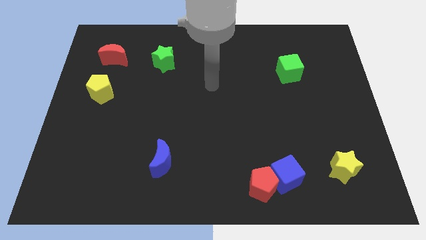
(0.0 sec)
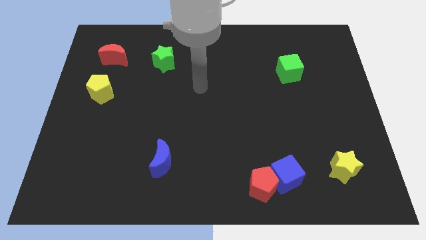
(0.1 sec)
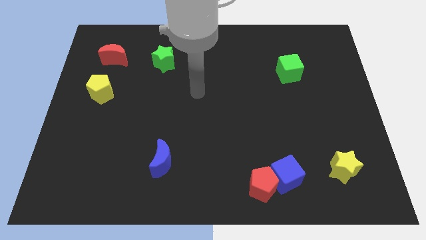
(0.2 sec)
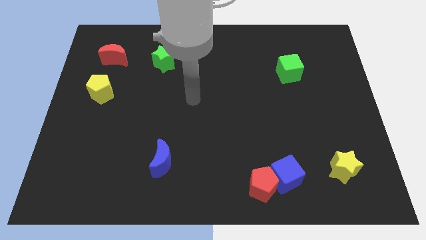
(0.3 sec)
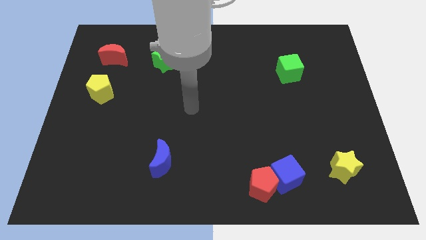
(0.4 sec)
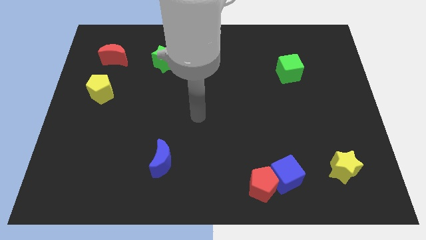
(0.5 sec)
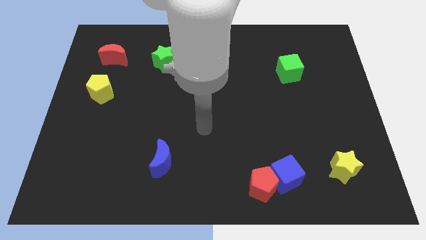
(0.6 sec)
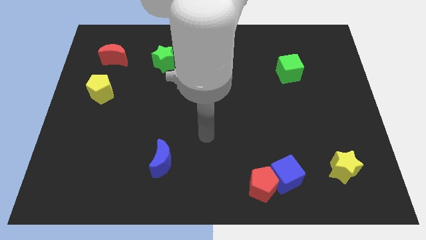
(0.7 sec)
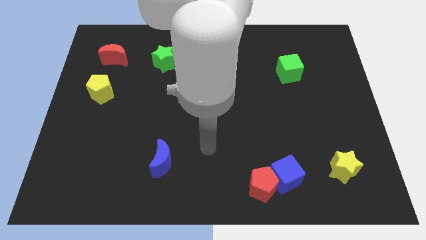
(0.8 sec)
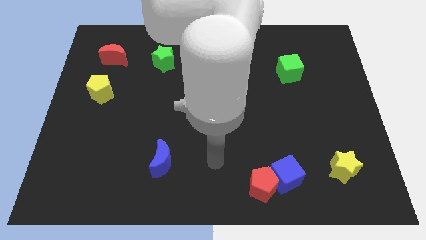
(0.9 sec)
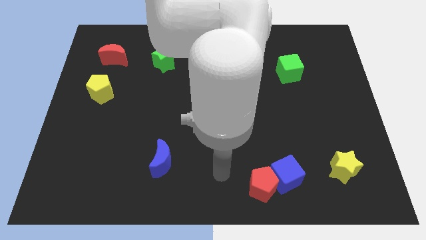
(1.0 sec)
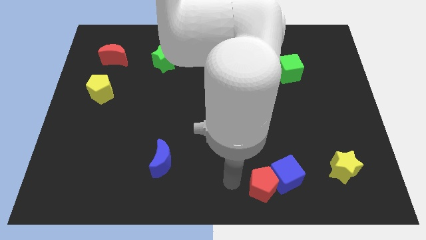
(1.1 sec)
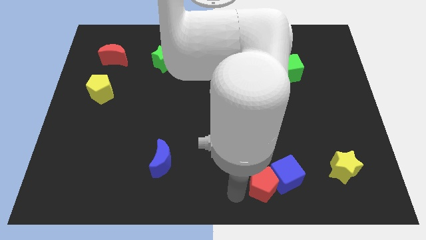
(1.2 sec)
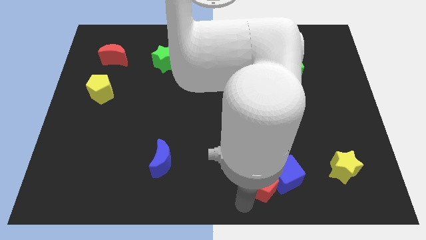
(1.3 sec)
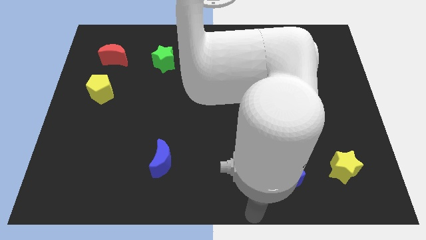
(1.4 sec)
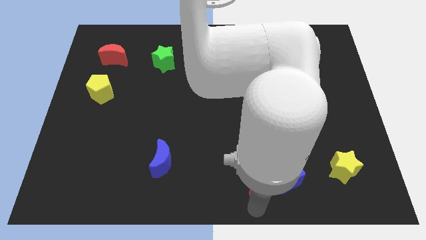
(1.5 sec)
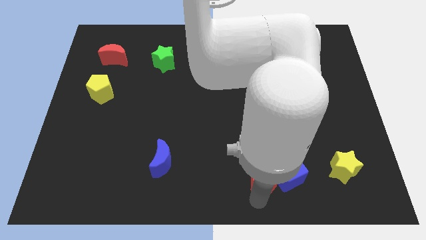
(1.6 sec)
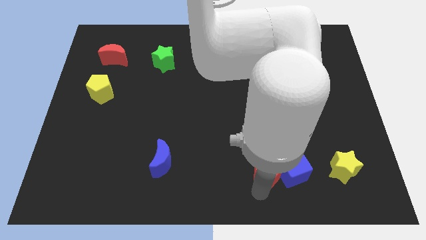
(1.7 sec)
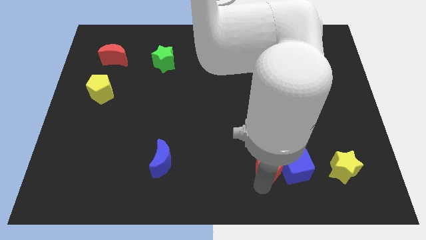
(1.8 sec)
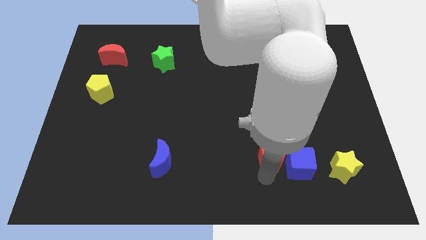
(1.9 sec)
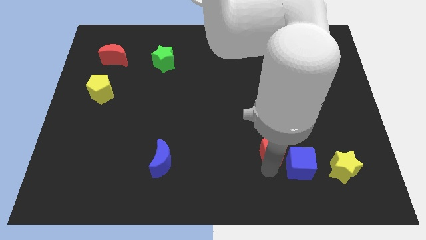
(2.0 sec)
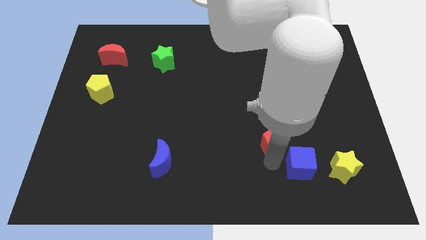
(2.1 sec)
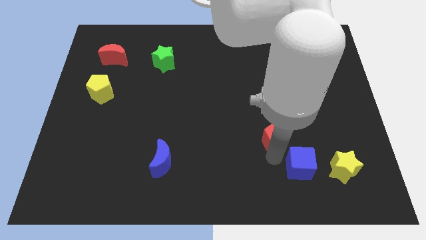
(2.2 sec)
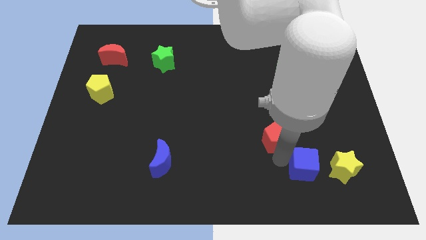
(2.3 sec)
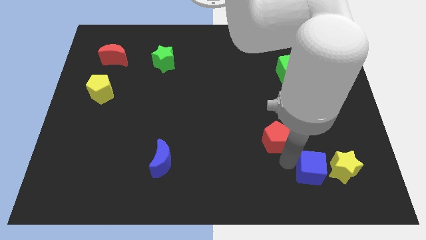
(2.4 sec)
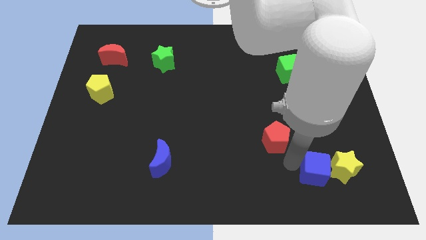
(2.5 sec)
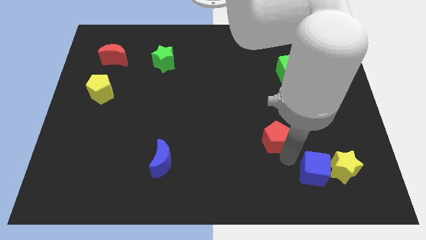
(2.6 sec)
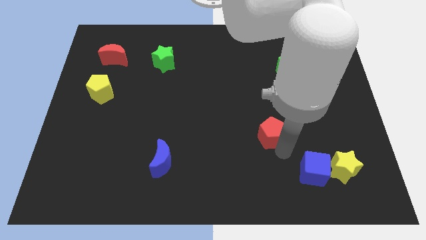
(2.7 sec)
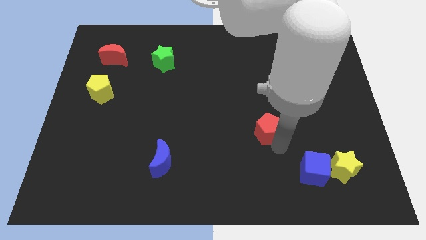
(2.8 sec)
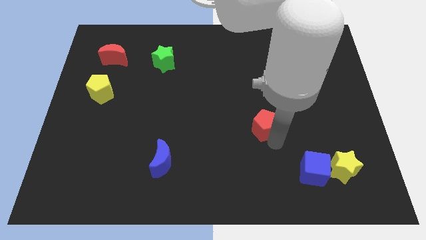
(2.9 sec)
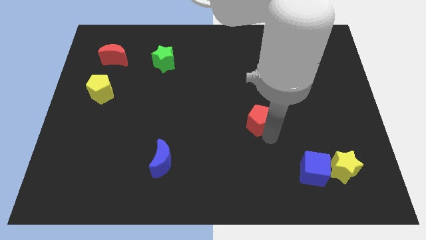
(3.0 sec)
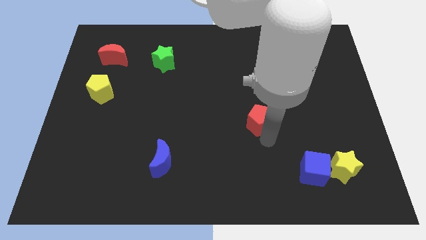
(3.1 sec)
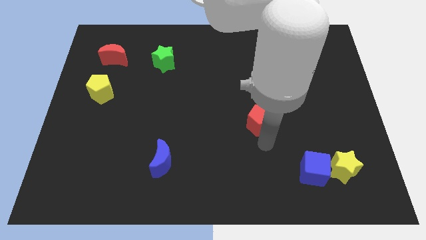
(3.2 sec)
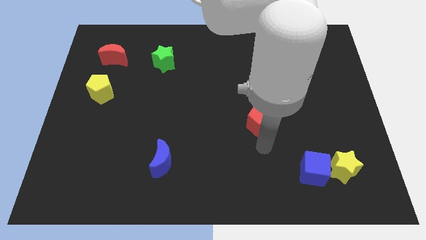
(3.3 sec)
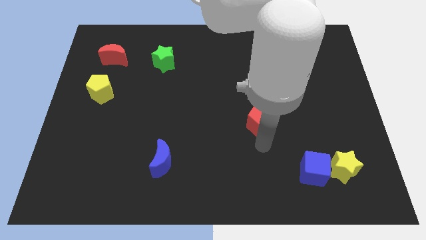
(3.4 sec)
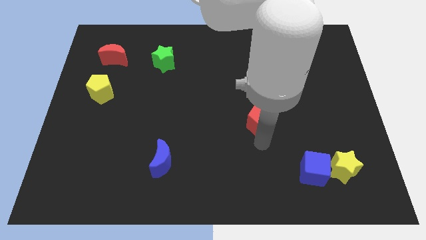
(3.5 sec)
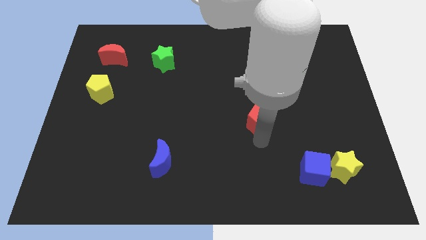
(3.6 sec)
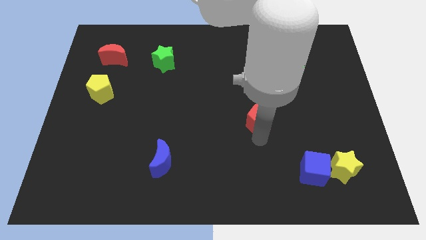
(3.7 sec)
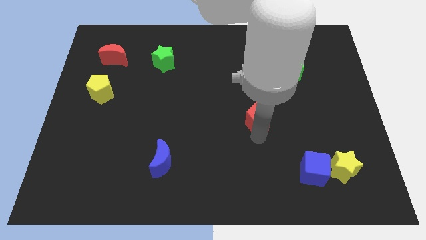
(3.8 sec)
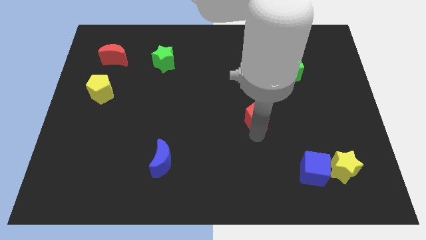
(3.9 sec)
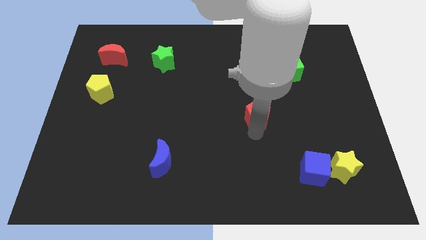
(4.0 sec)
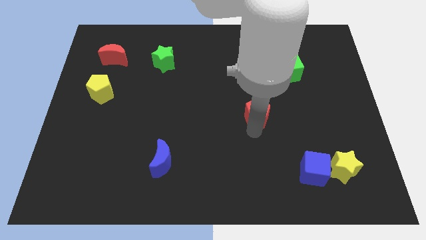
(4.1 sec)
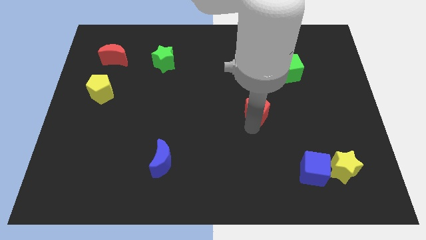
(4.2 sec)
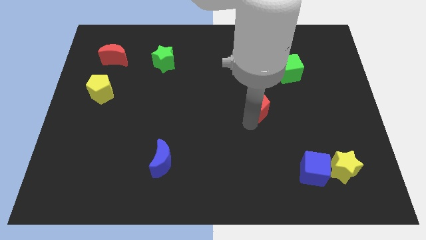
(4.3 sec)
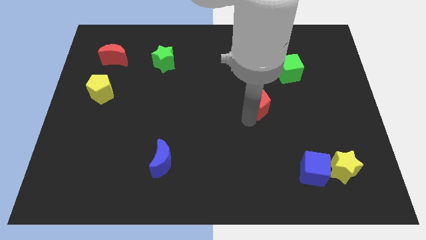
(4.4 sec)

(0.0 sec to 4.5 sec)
move the red pentagon up

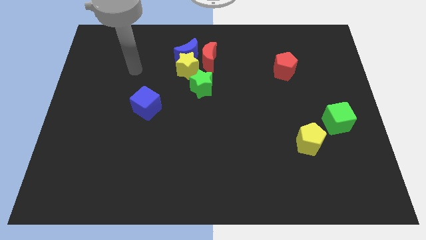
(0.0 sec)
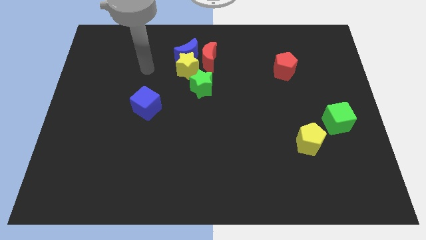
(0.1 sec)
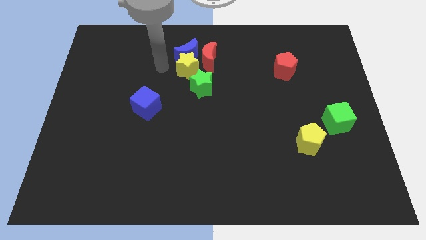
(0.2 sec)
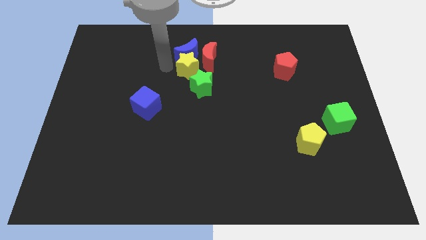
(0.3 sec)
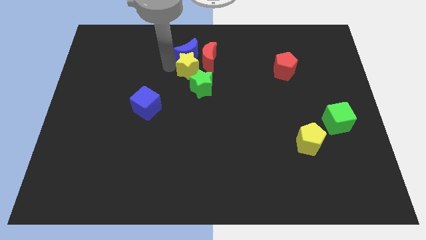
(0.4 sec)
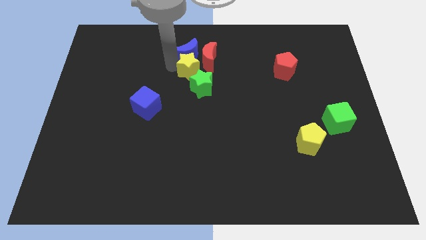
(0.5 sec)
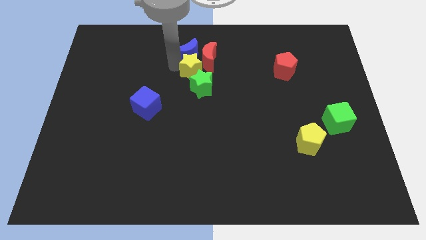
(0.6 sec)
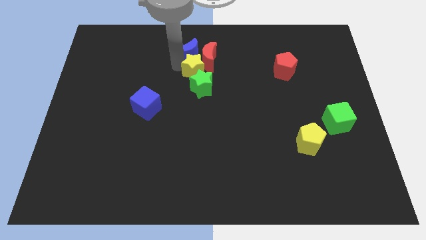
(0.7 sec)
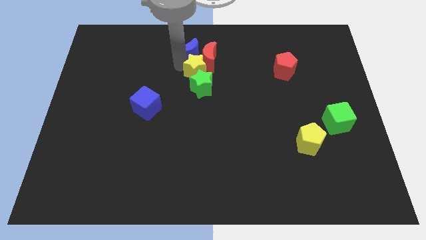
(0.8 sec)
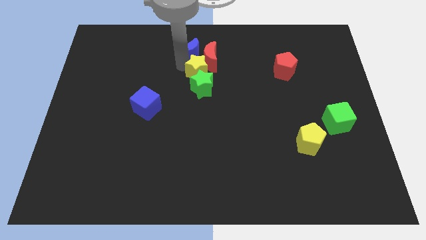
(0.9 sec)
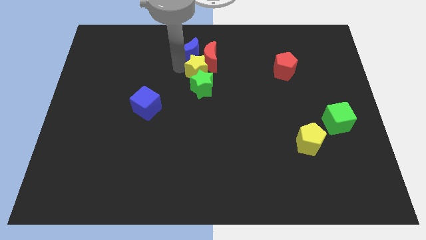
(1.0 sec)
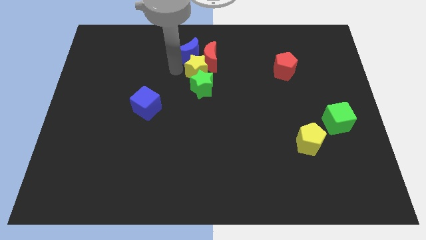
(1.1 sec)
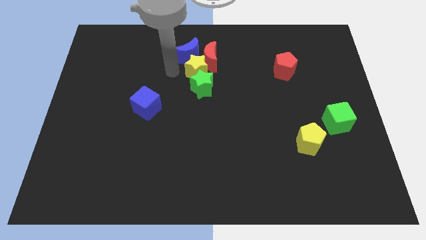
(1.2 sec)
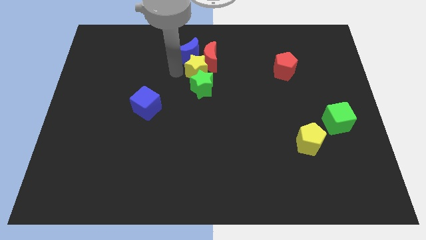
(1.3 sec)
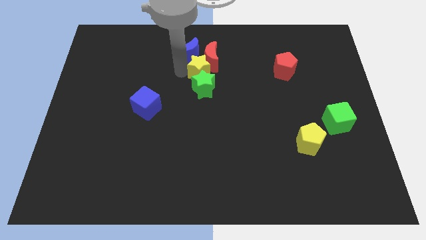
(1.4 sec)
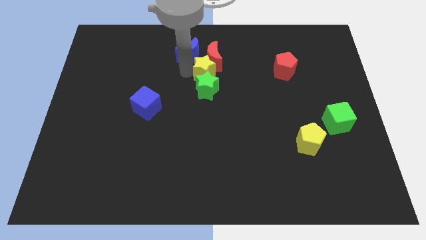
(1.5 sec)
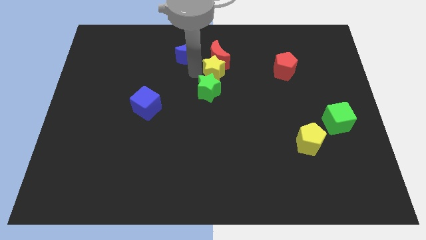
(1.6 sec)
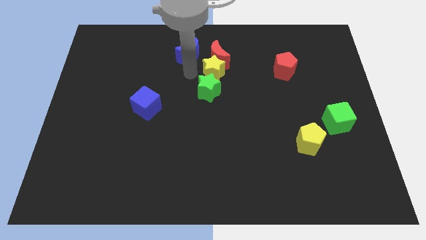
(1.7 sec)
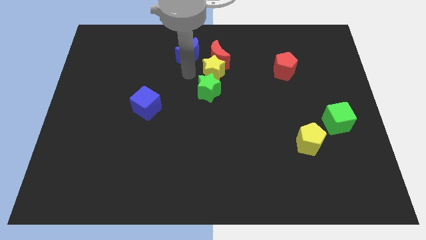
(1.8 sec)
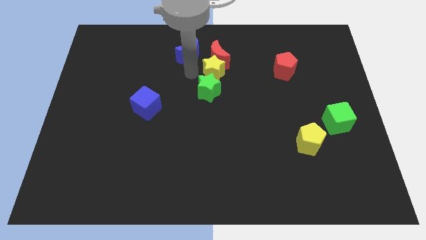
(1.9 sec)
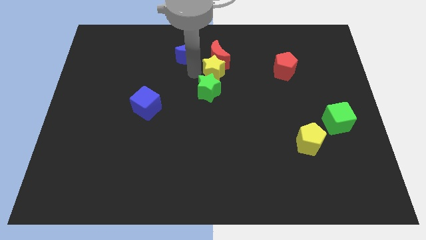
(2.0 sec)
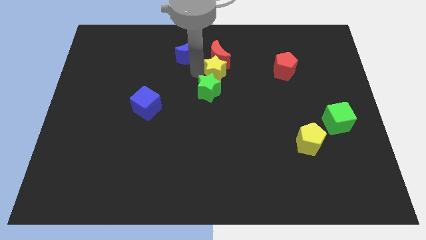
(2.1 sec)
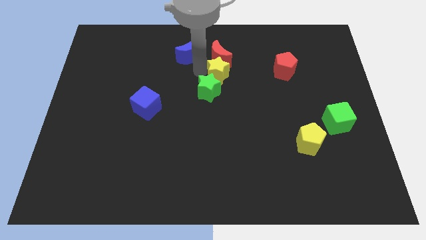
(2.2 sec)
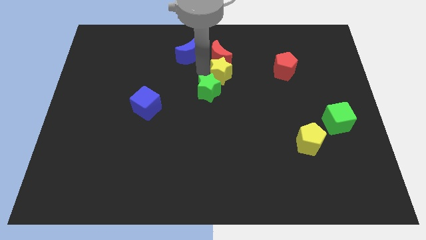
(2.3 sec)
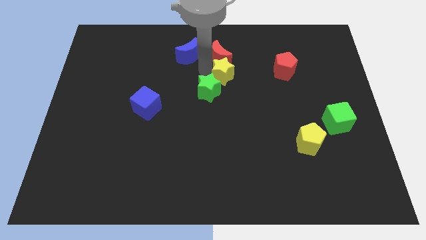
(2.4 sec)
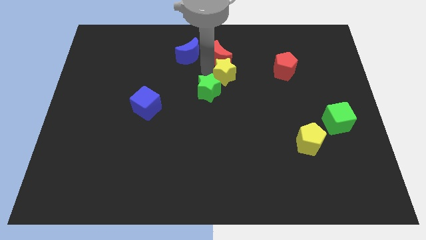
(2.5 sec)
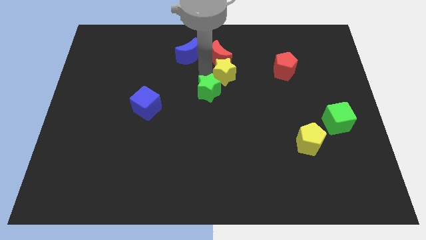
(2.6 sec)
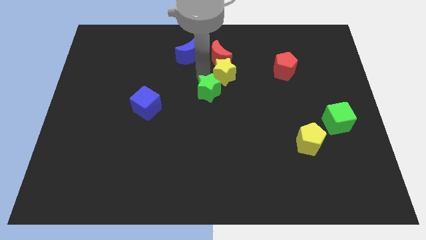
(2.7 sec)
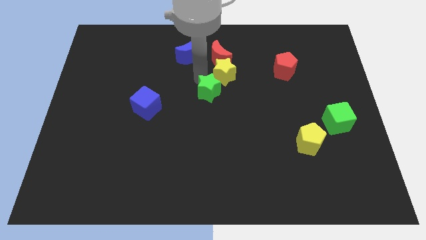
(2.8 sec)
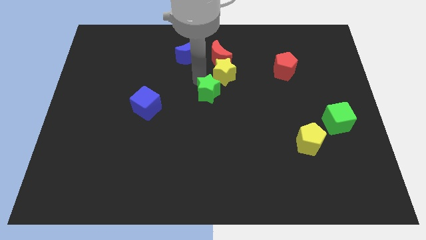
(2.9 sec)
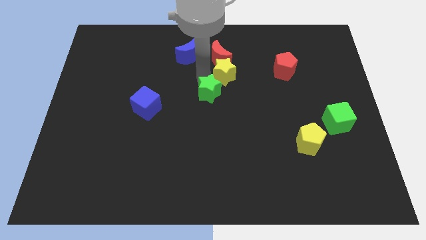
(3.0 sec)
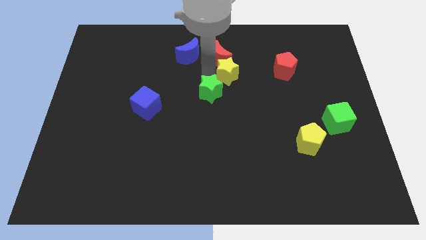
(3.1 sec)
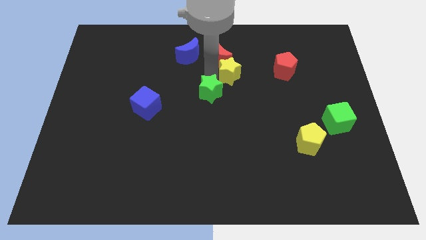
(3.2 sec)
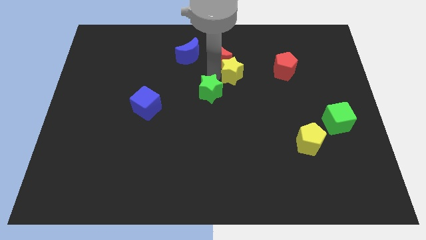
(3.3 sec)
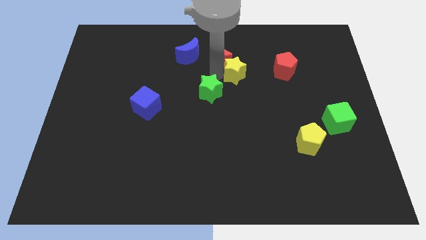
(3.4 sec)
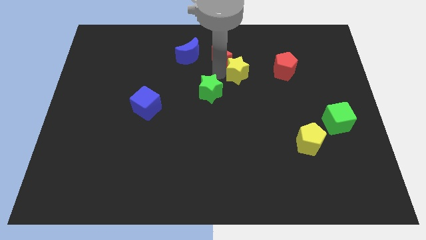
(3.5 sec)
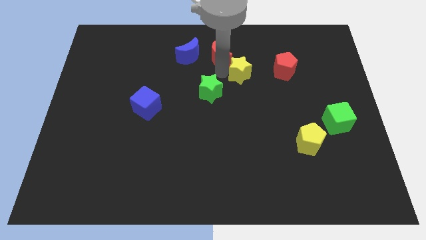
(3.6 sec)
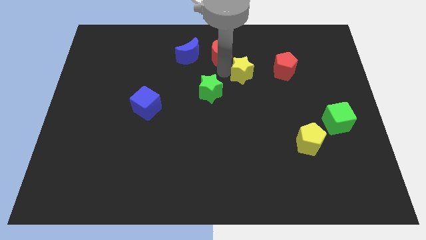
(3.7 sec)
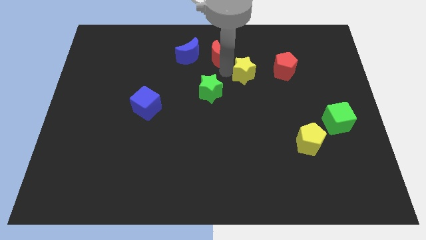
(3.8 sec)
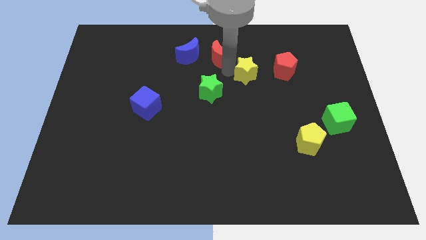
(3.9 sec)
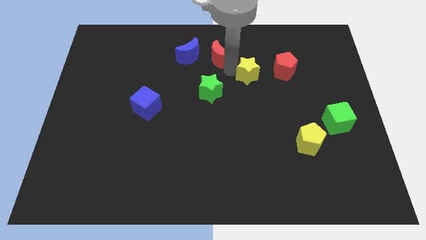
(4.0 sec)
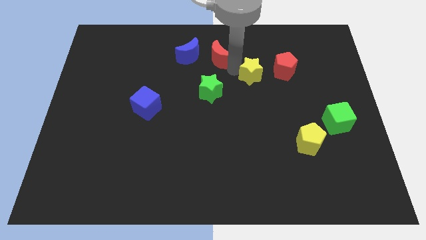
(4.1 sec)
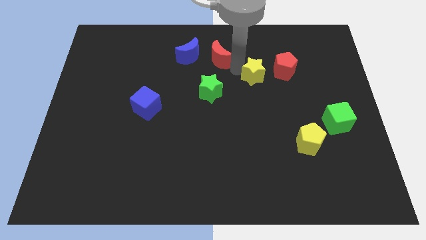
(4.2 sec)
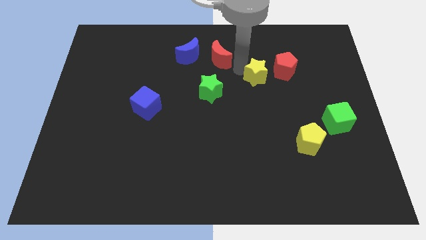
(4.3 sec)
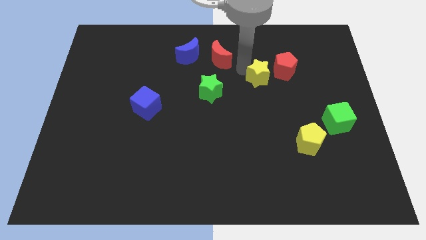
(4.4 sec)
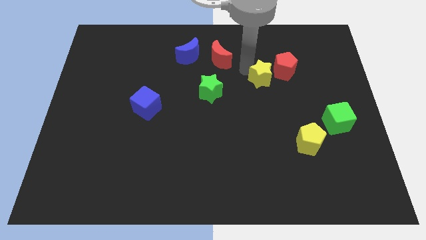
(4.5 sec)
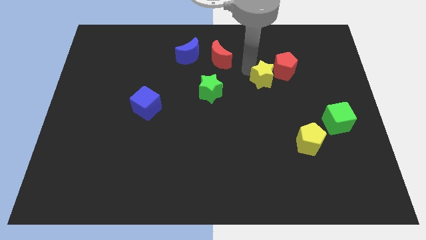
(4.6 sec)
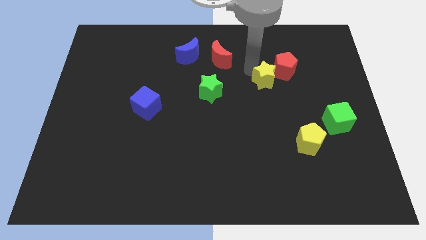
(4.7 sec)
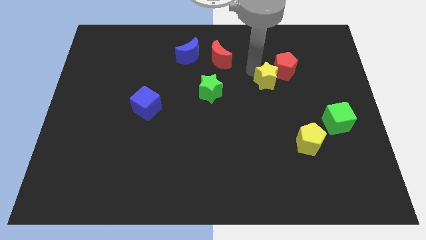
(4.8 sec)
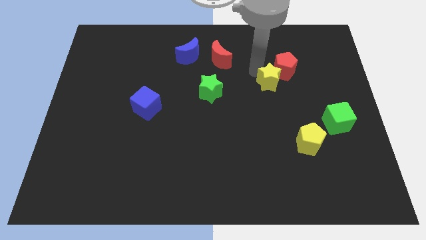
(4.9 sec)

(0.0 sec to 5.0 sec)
push the yellow star right
